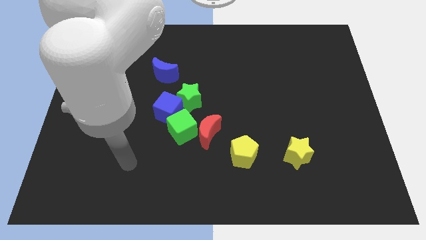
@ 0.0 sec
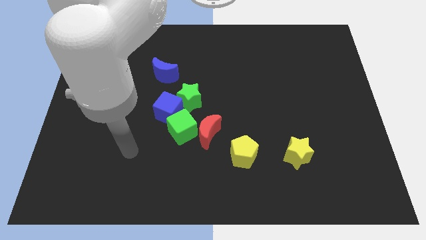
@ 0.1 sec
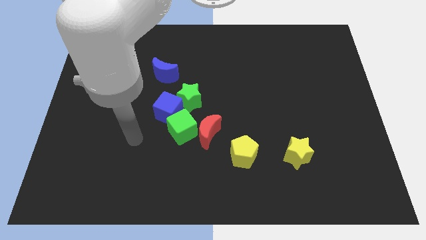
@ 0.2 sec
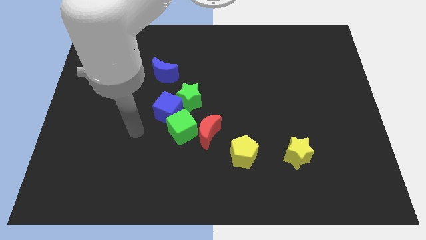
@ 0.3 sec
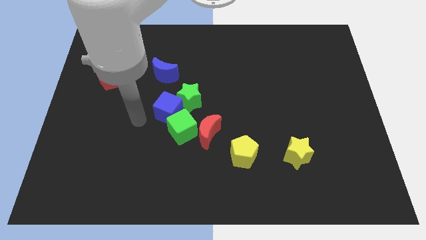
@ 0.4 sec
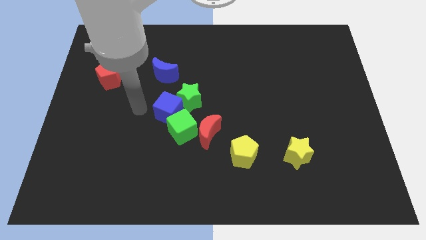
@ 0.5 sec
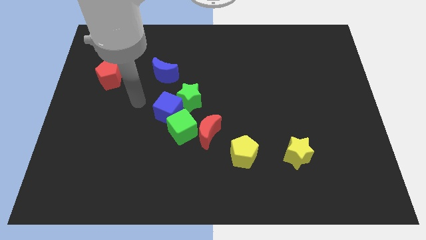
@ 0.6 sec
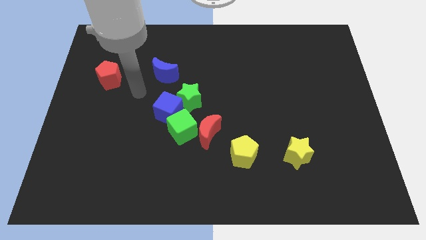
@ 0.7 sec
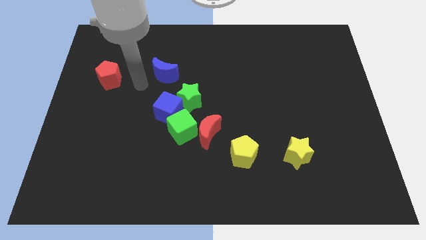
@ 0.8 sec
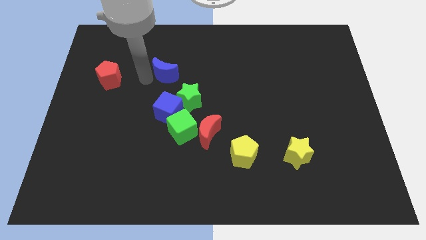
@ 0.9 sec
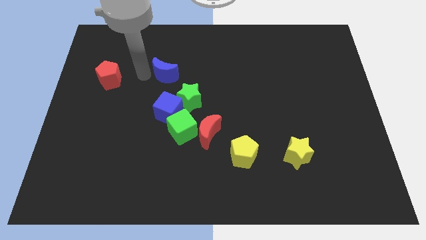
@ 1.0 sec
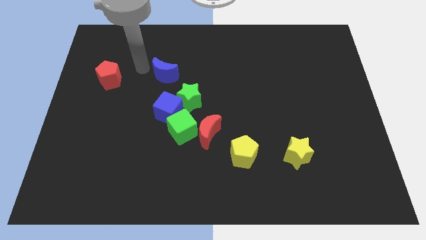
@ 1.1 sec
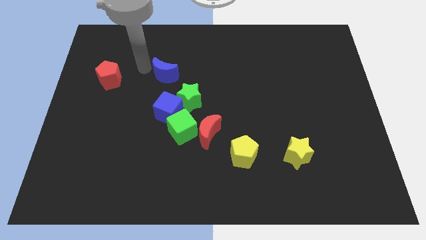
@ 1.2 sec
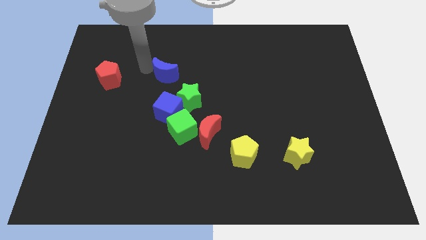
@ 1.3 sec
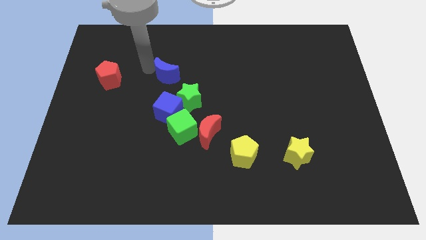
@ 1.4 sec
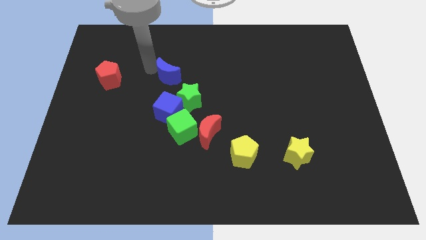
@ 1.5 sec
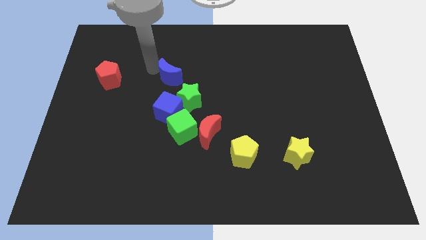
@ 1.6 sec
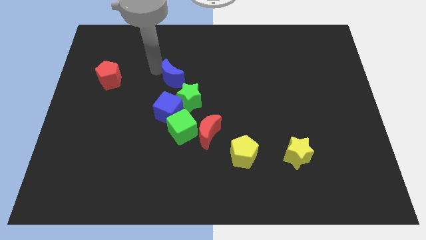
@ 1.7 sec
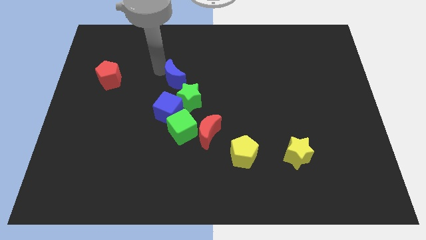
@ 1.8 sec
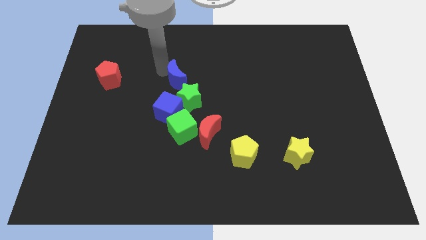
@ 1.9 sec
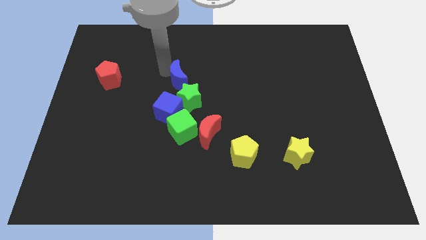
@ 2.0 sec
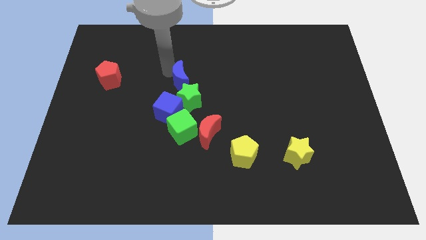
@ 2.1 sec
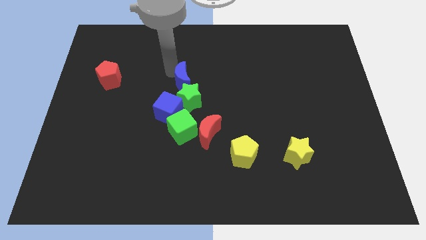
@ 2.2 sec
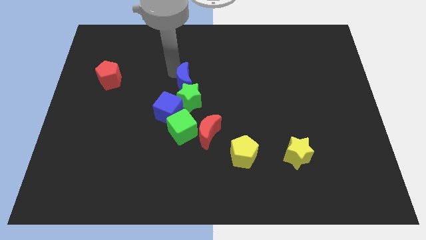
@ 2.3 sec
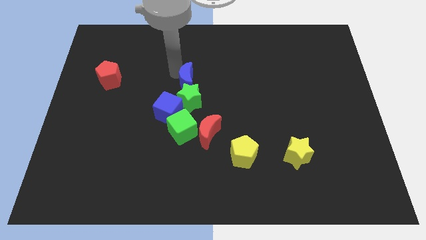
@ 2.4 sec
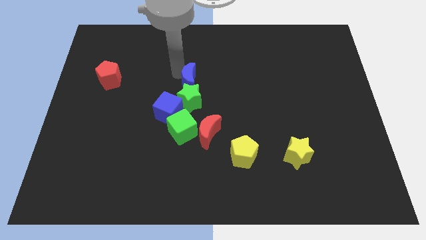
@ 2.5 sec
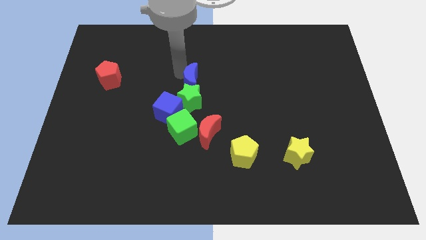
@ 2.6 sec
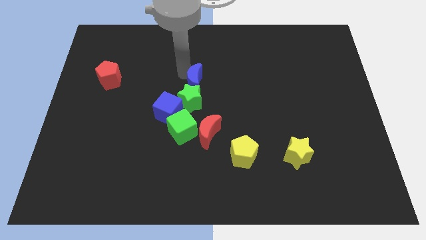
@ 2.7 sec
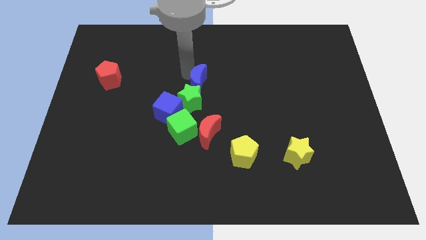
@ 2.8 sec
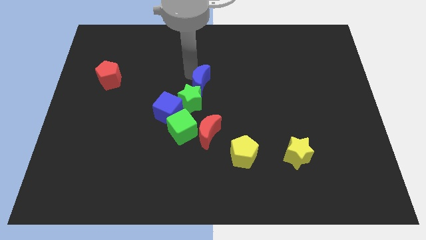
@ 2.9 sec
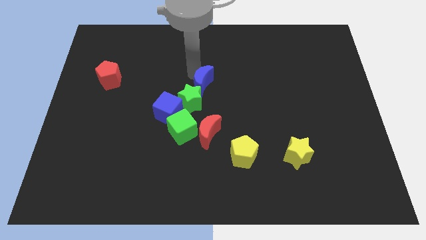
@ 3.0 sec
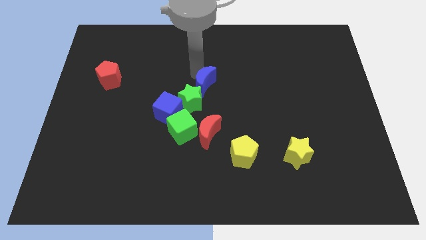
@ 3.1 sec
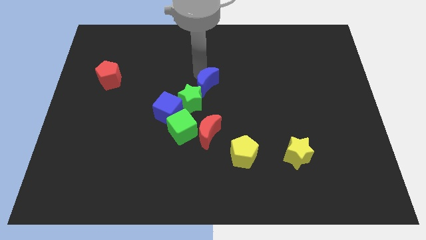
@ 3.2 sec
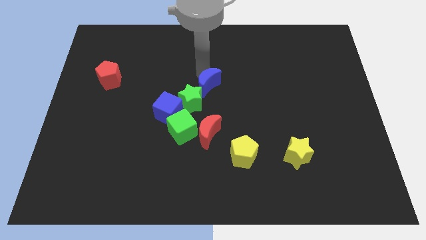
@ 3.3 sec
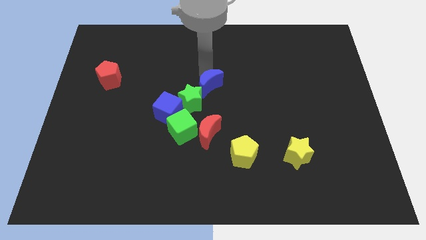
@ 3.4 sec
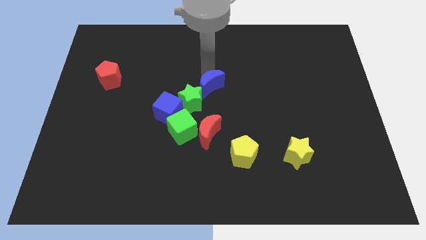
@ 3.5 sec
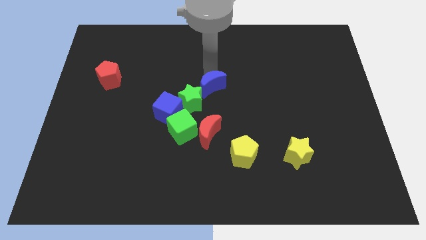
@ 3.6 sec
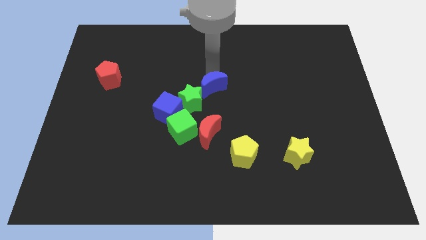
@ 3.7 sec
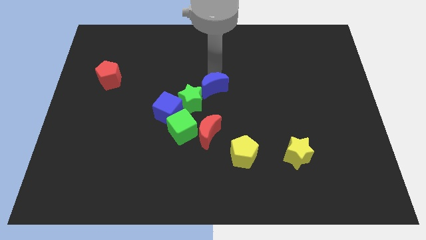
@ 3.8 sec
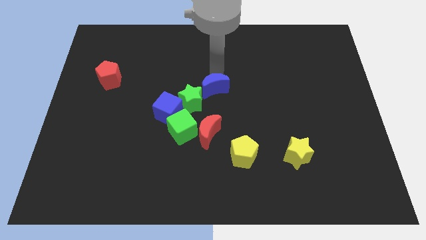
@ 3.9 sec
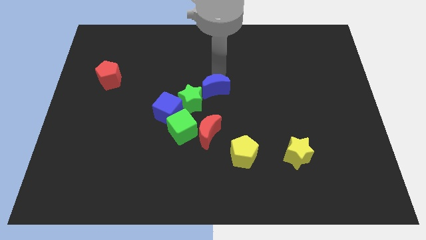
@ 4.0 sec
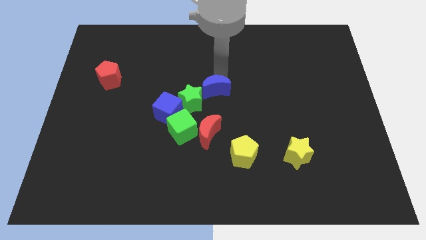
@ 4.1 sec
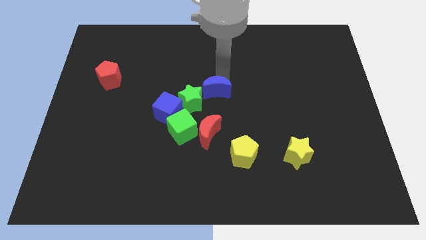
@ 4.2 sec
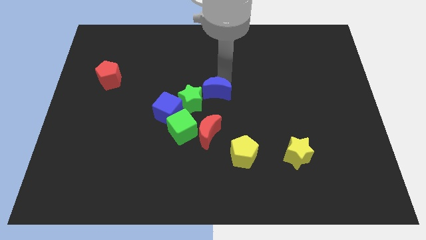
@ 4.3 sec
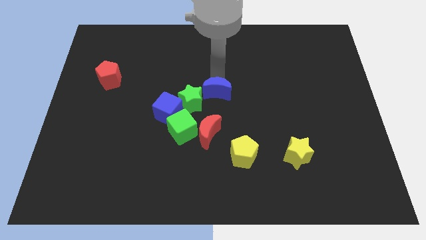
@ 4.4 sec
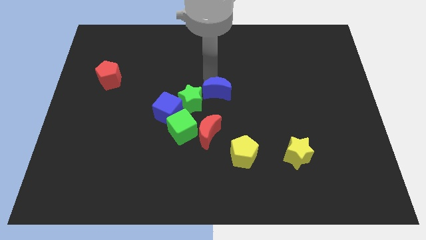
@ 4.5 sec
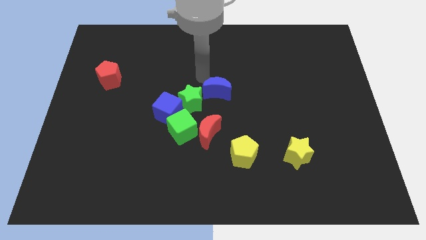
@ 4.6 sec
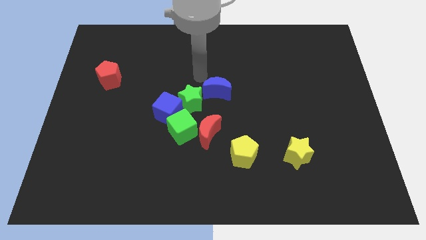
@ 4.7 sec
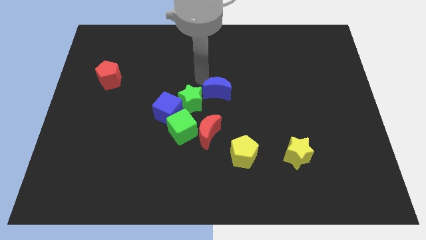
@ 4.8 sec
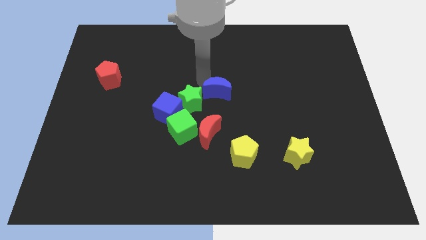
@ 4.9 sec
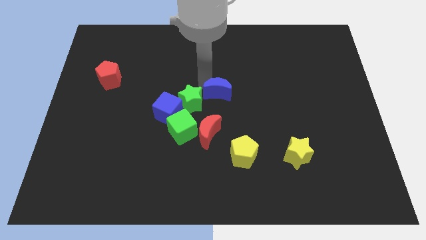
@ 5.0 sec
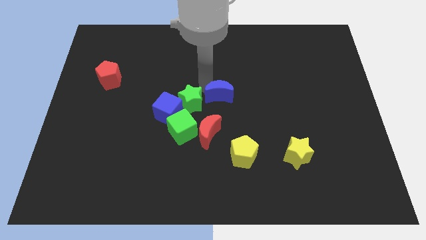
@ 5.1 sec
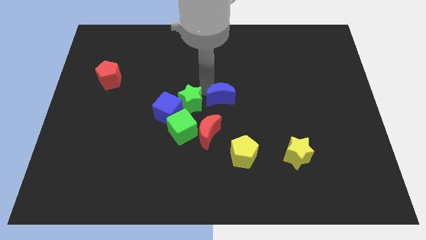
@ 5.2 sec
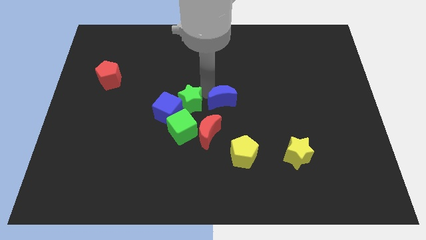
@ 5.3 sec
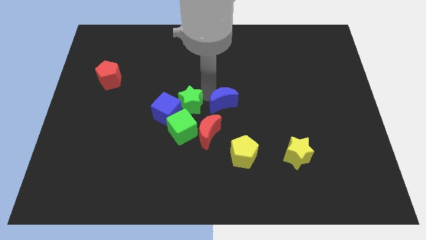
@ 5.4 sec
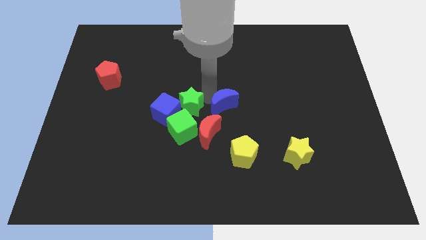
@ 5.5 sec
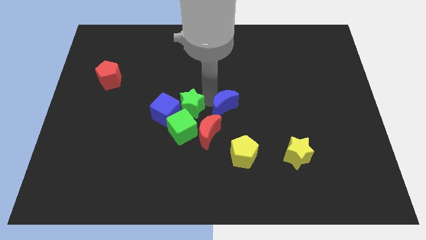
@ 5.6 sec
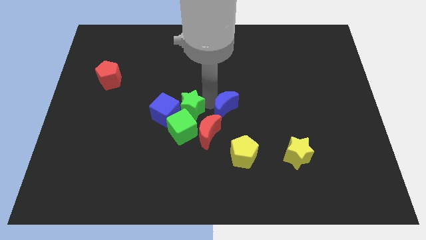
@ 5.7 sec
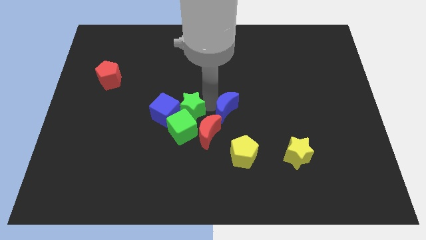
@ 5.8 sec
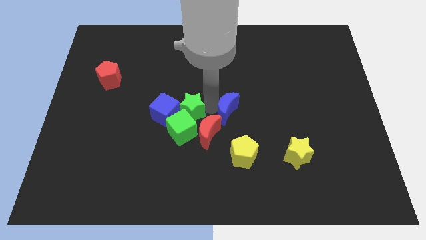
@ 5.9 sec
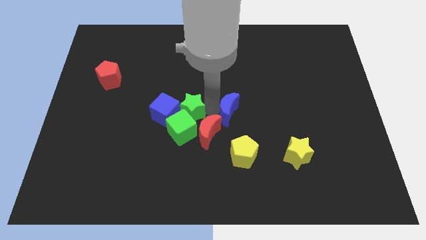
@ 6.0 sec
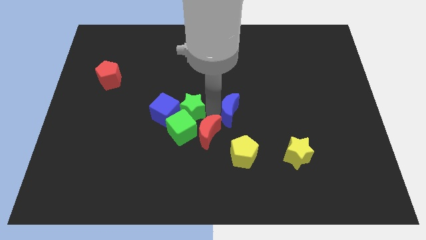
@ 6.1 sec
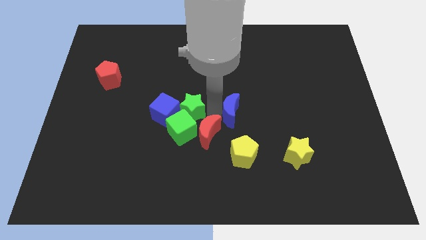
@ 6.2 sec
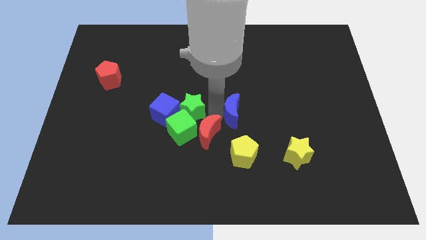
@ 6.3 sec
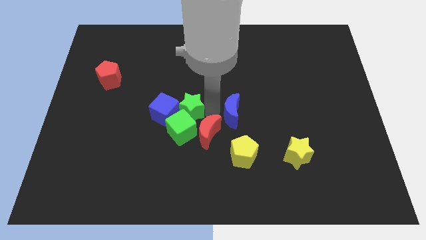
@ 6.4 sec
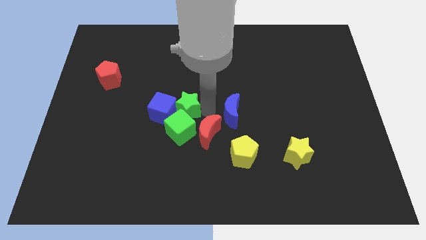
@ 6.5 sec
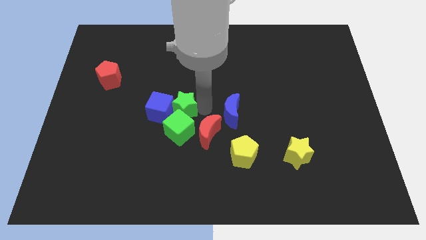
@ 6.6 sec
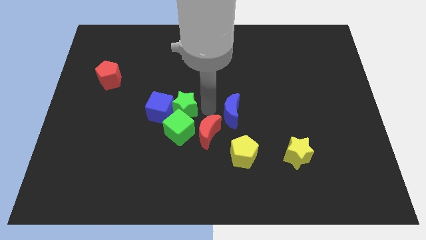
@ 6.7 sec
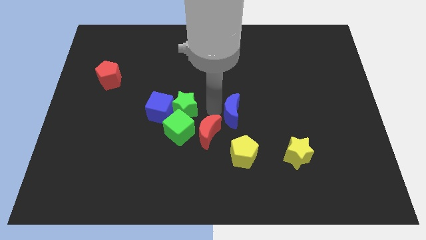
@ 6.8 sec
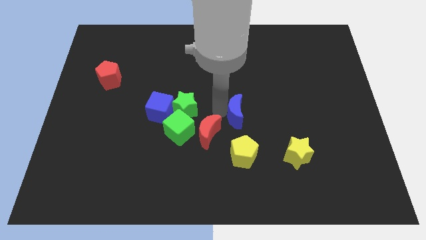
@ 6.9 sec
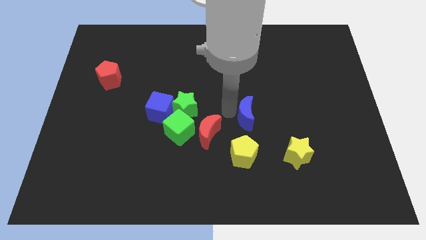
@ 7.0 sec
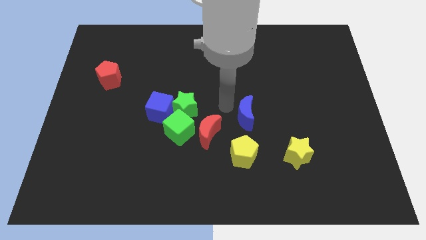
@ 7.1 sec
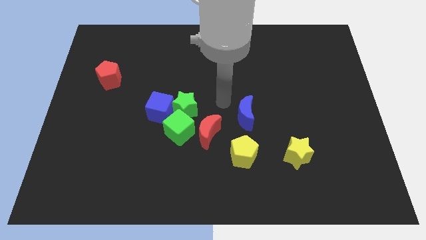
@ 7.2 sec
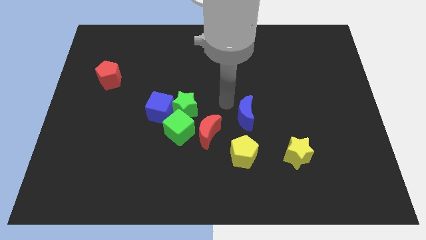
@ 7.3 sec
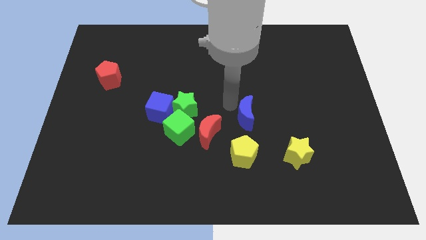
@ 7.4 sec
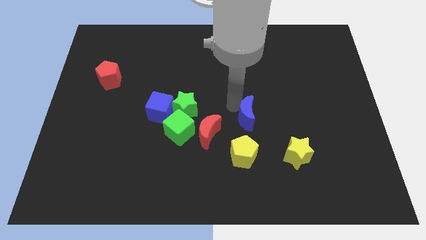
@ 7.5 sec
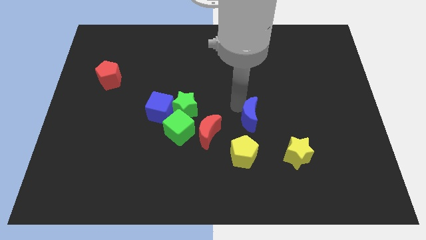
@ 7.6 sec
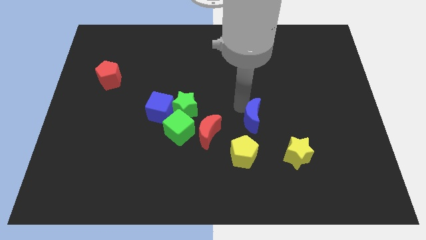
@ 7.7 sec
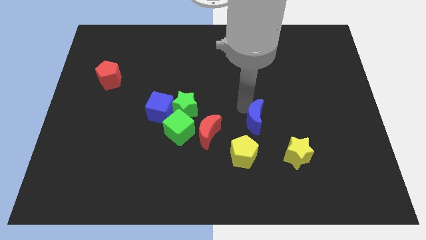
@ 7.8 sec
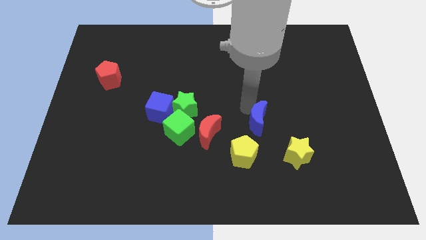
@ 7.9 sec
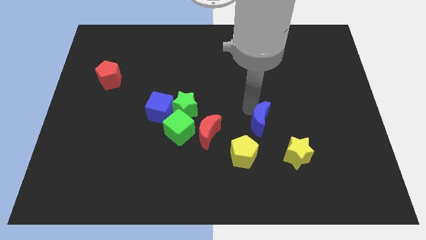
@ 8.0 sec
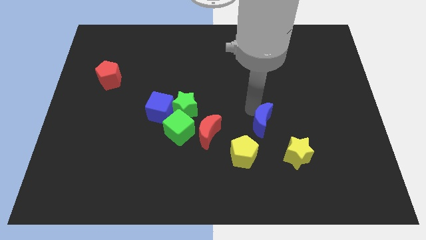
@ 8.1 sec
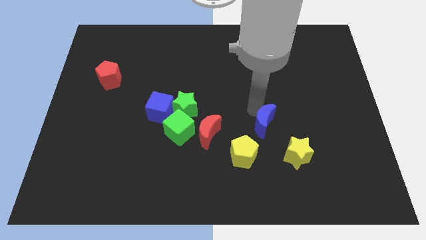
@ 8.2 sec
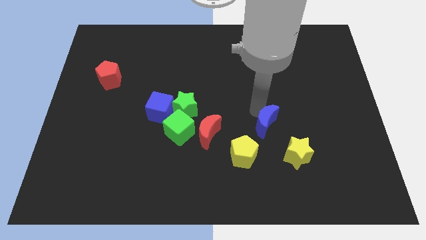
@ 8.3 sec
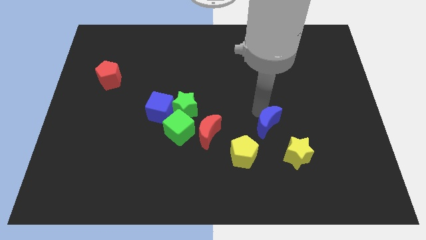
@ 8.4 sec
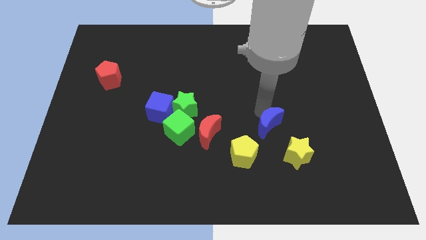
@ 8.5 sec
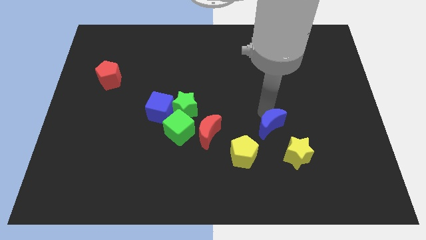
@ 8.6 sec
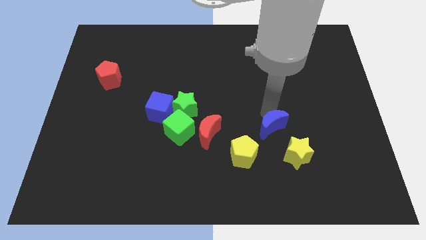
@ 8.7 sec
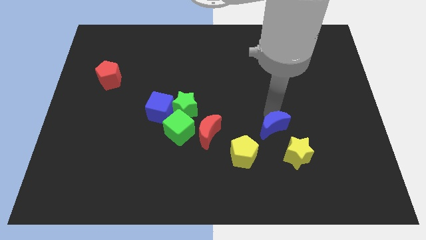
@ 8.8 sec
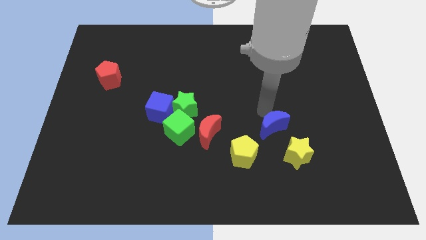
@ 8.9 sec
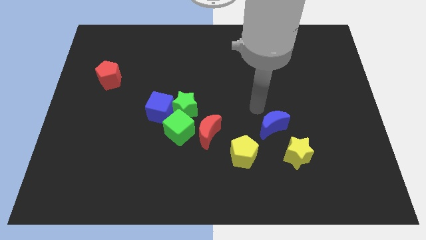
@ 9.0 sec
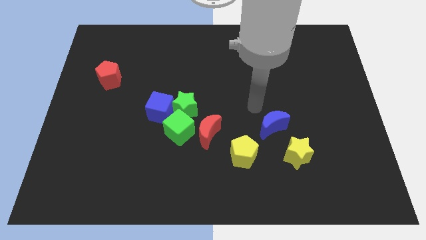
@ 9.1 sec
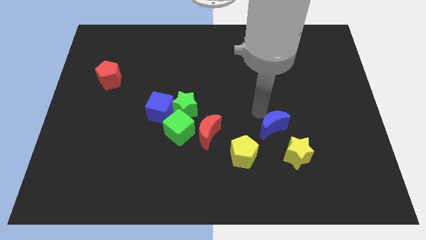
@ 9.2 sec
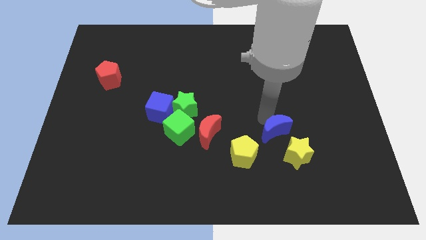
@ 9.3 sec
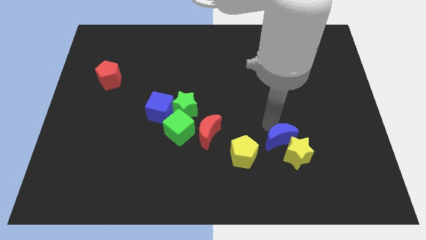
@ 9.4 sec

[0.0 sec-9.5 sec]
slide the blue moon to the yellow star
